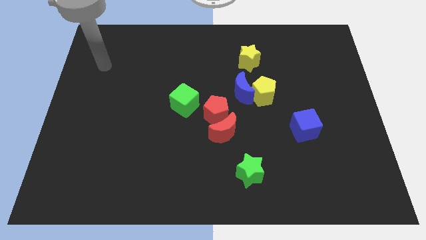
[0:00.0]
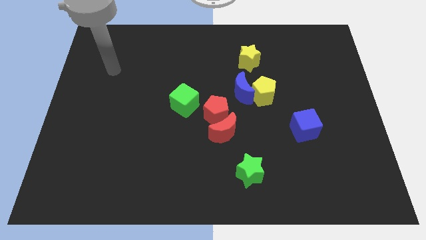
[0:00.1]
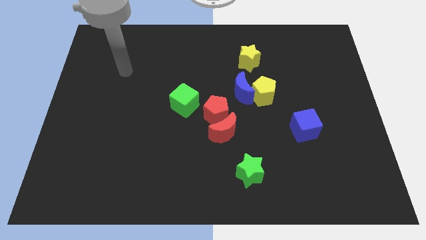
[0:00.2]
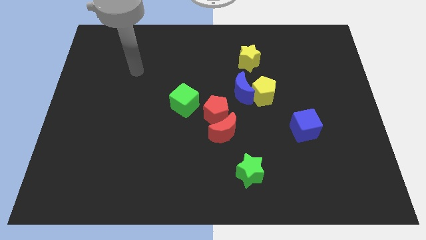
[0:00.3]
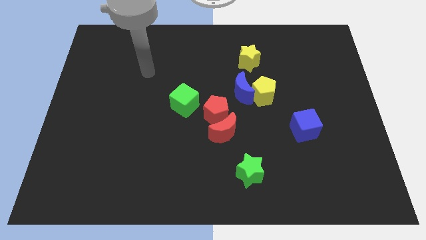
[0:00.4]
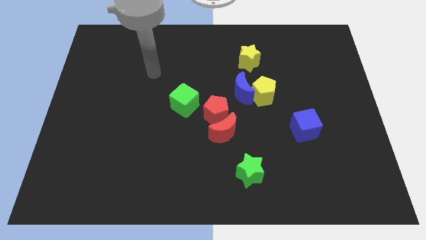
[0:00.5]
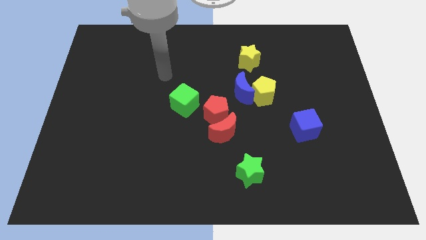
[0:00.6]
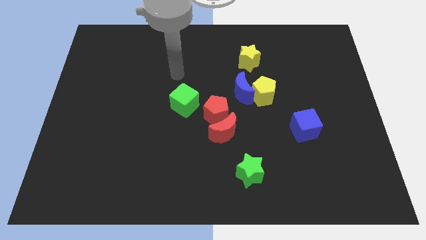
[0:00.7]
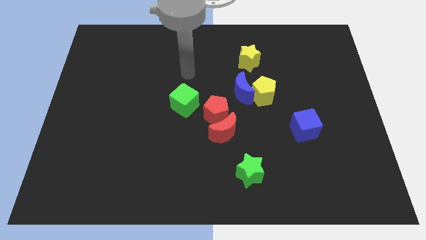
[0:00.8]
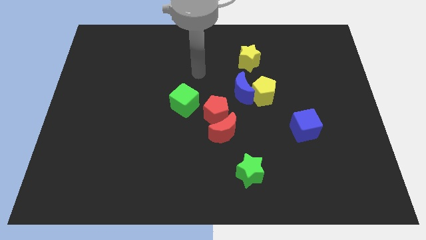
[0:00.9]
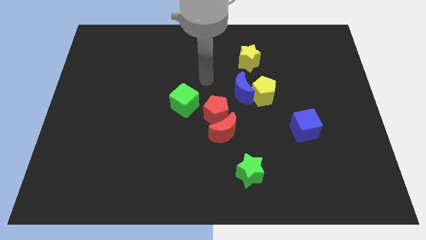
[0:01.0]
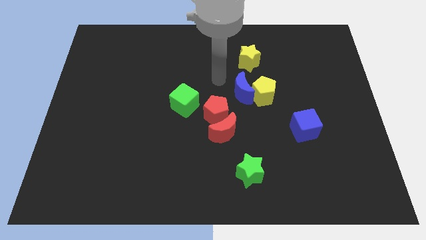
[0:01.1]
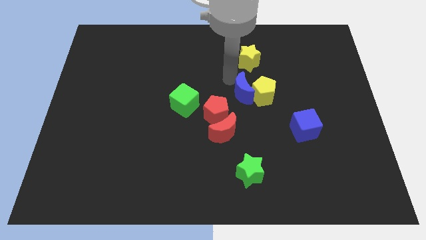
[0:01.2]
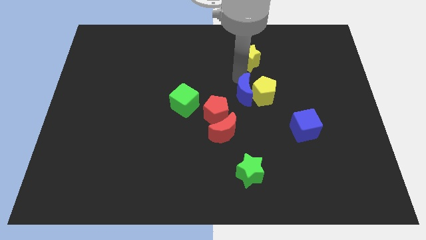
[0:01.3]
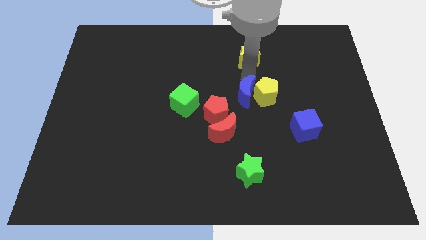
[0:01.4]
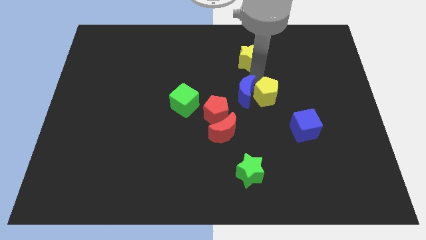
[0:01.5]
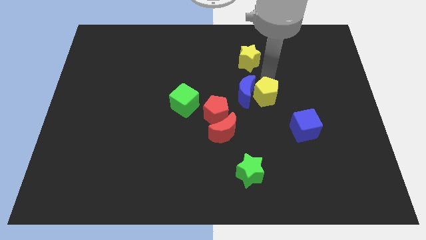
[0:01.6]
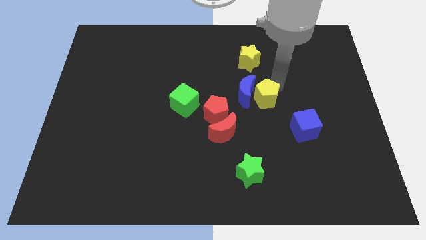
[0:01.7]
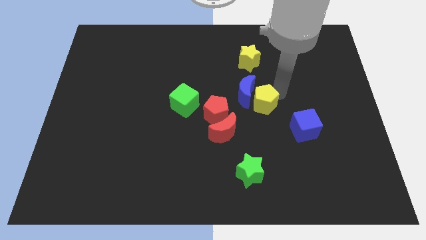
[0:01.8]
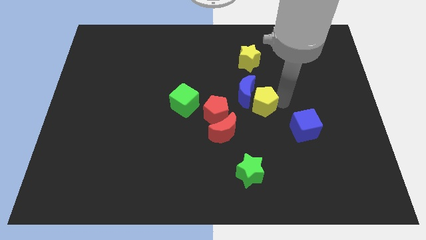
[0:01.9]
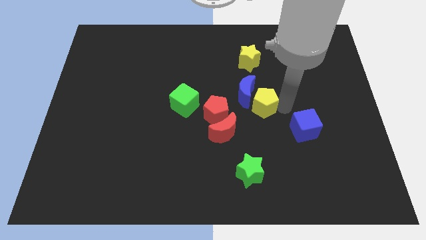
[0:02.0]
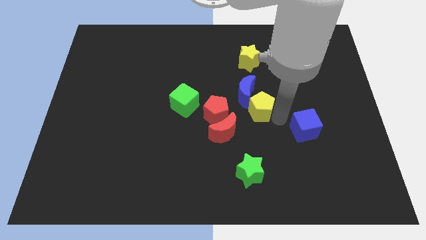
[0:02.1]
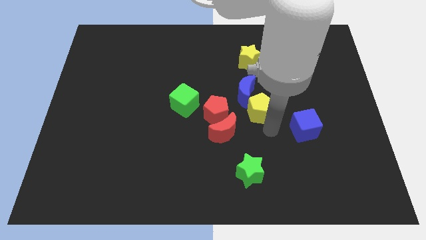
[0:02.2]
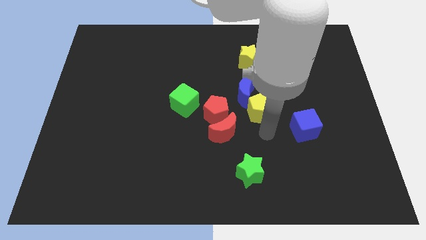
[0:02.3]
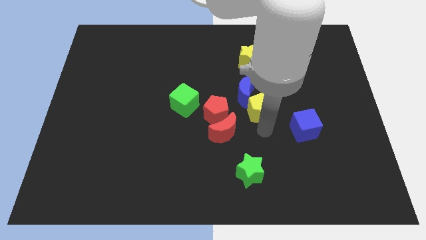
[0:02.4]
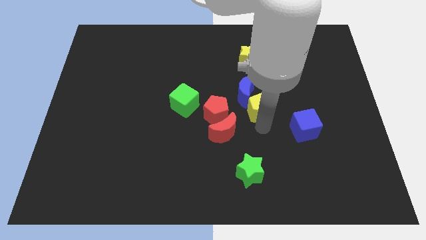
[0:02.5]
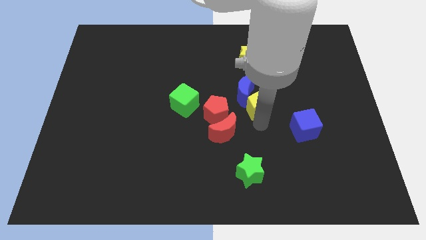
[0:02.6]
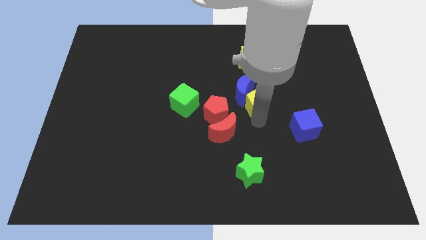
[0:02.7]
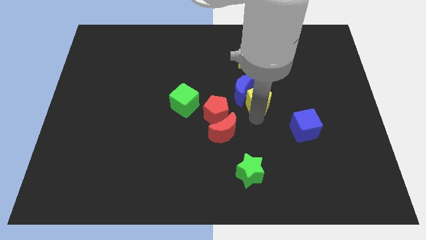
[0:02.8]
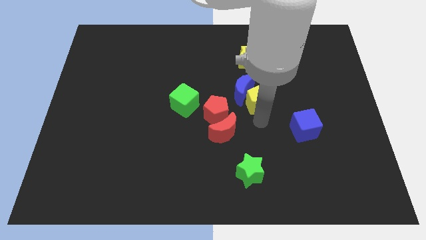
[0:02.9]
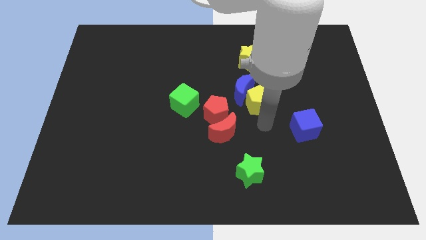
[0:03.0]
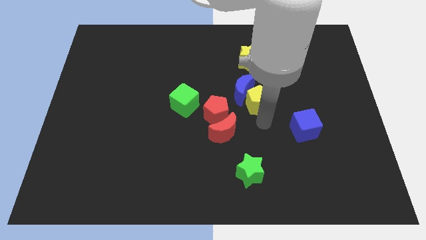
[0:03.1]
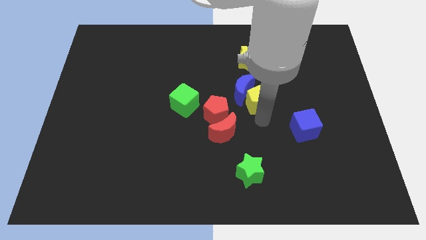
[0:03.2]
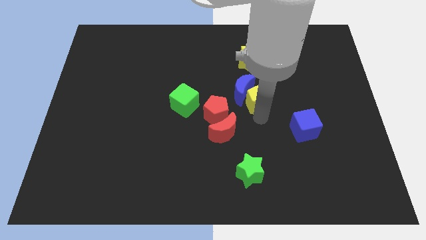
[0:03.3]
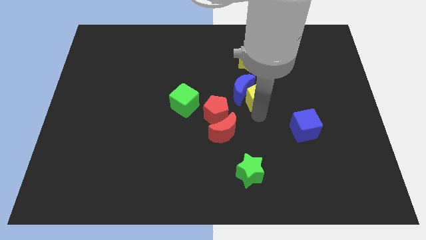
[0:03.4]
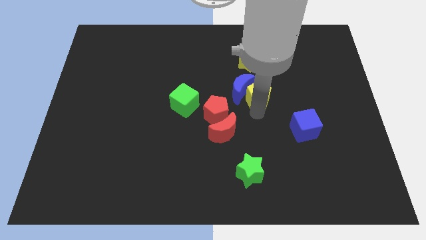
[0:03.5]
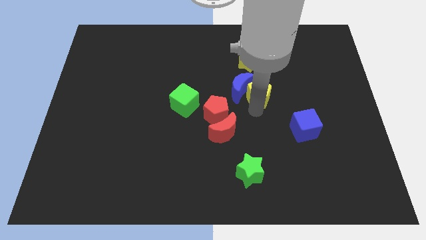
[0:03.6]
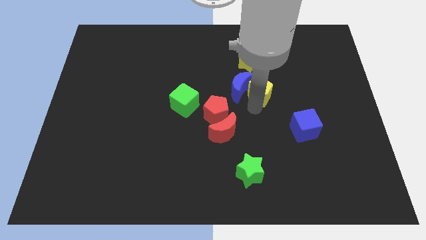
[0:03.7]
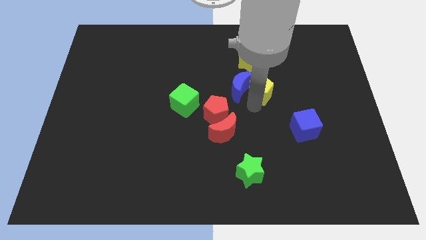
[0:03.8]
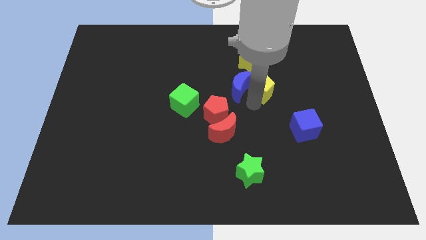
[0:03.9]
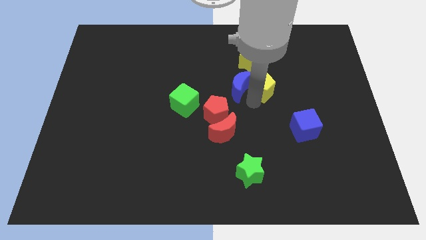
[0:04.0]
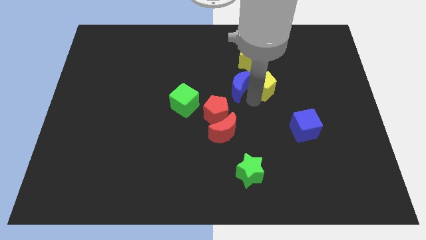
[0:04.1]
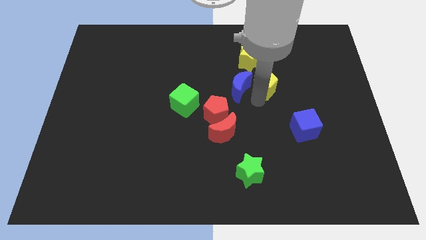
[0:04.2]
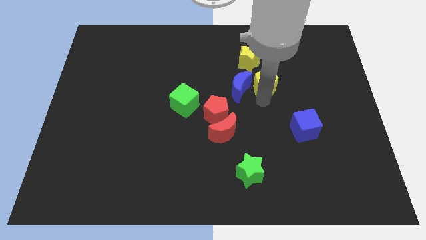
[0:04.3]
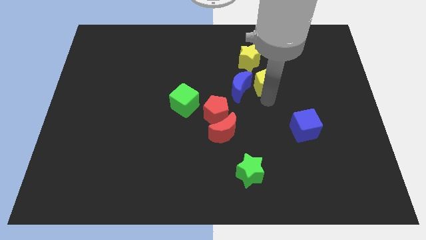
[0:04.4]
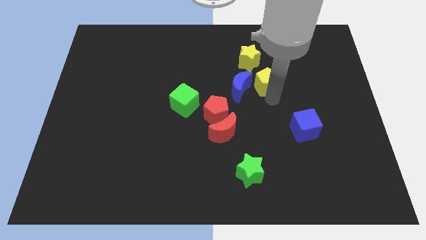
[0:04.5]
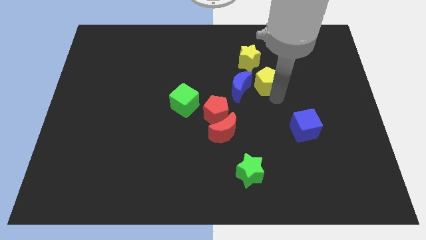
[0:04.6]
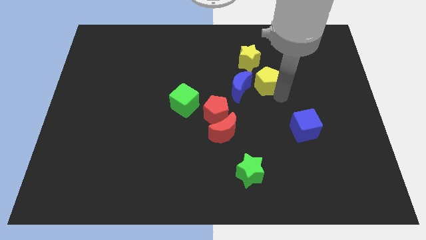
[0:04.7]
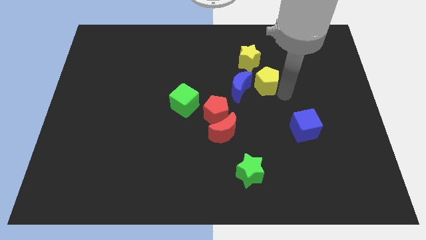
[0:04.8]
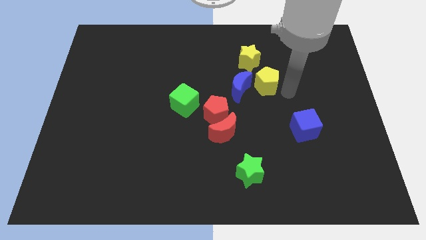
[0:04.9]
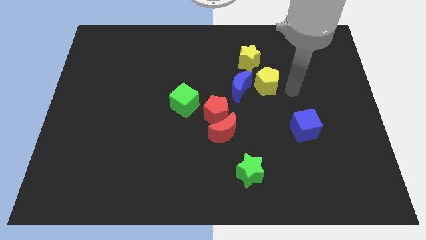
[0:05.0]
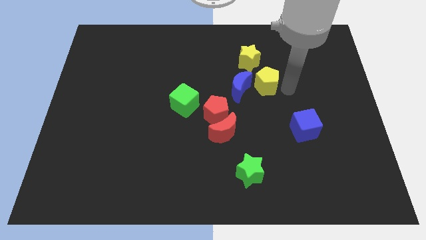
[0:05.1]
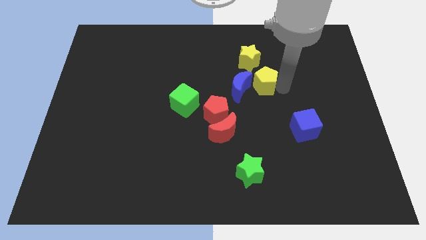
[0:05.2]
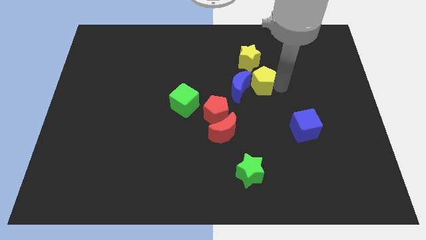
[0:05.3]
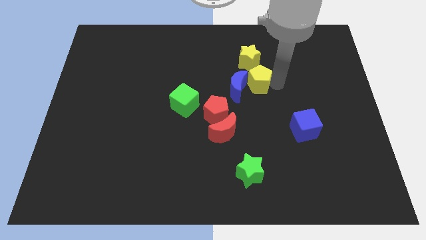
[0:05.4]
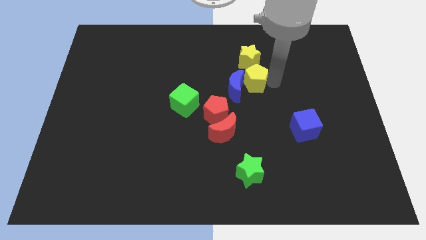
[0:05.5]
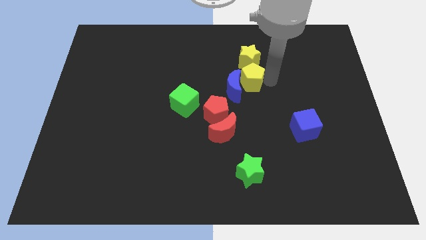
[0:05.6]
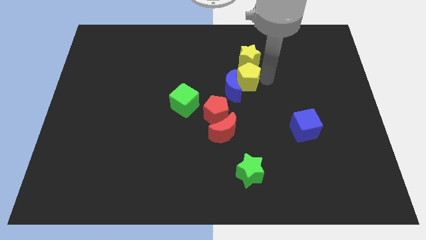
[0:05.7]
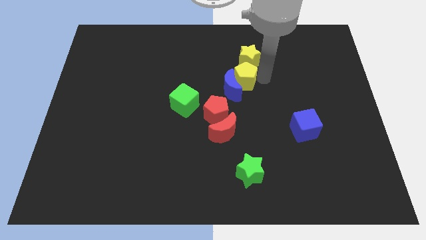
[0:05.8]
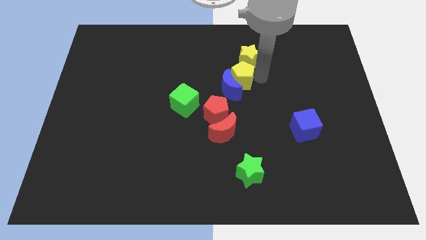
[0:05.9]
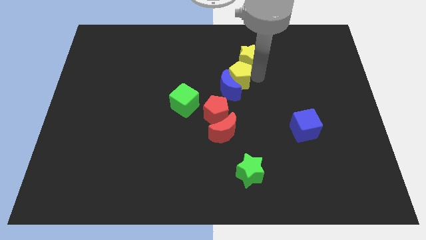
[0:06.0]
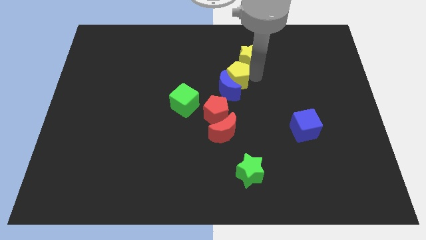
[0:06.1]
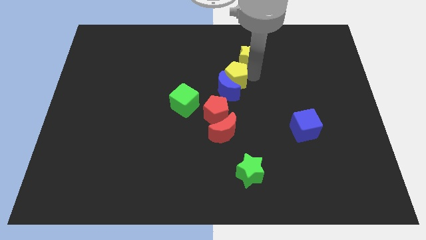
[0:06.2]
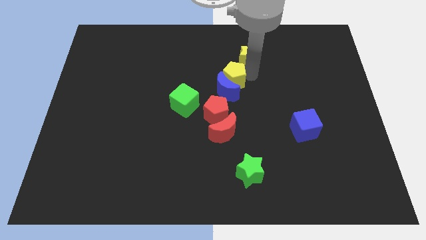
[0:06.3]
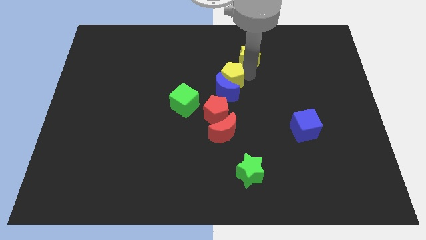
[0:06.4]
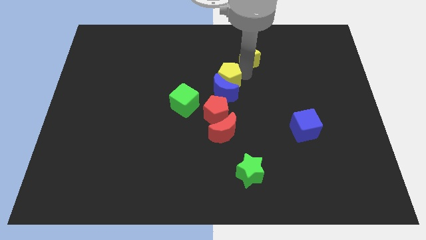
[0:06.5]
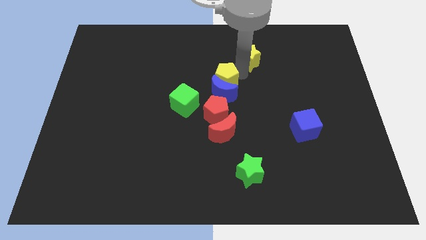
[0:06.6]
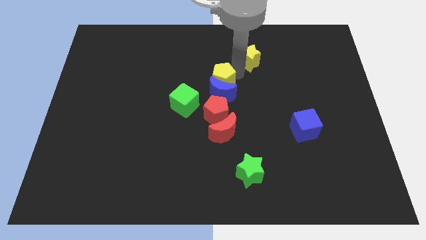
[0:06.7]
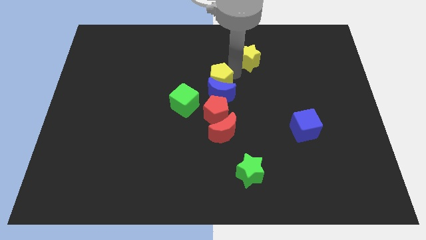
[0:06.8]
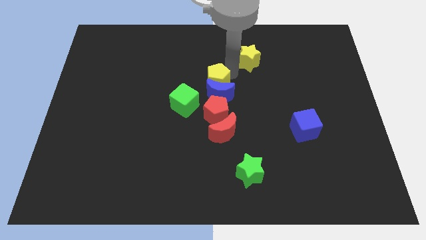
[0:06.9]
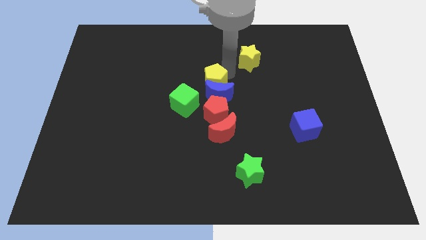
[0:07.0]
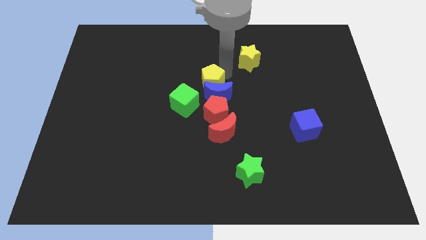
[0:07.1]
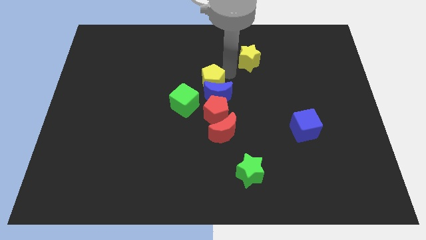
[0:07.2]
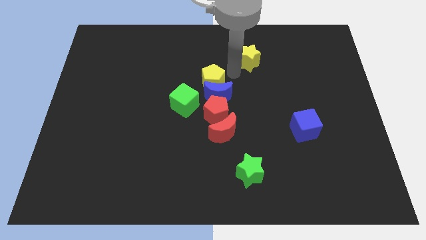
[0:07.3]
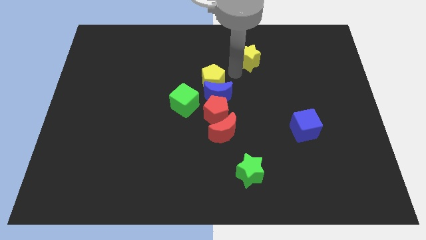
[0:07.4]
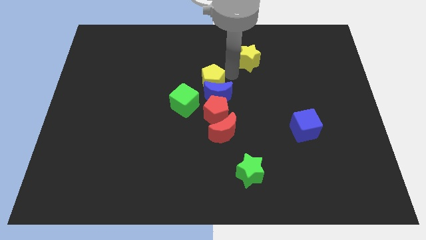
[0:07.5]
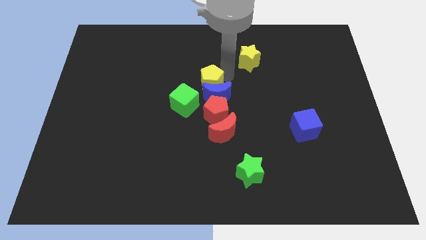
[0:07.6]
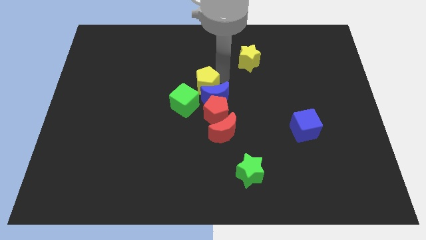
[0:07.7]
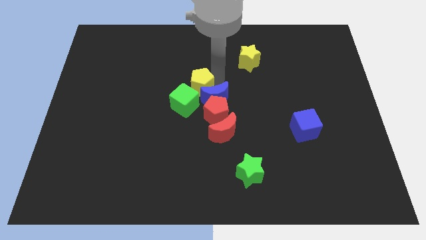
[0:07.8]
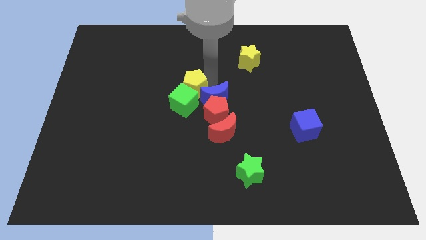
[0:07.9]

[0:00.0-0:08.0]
put the yellow pentagon next to the green cube
